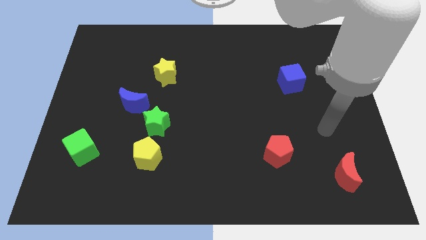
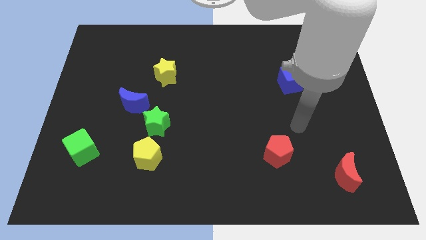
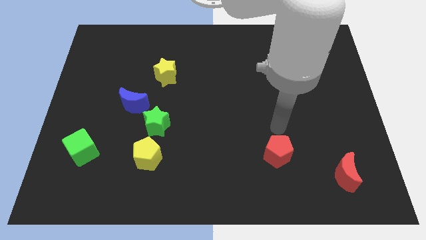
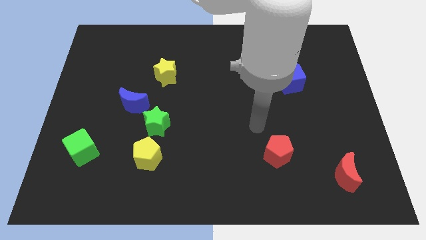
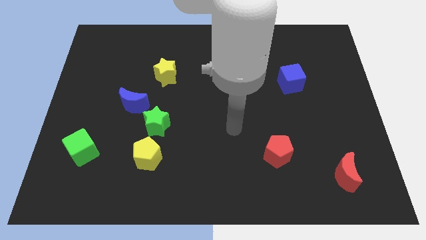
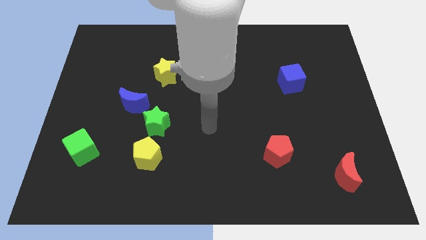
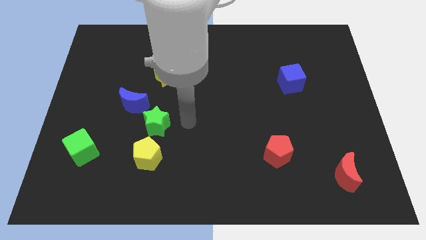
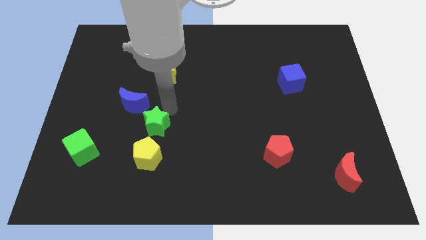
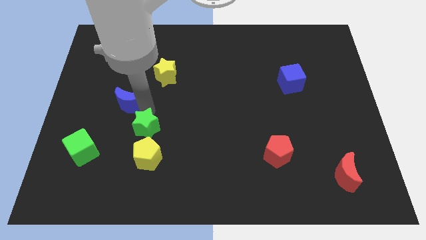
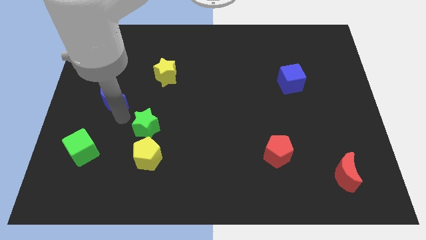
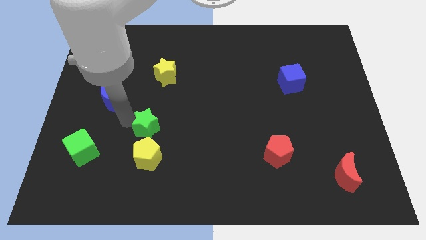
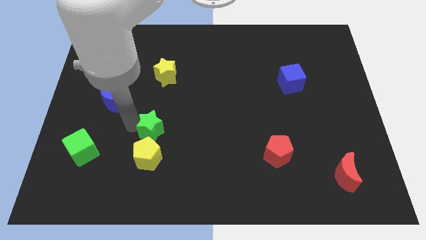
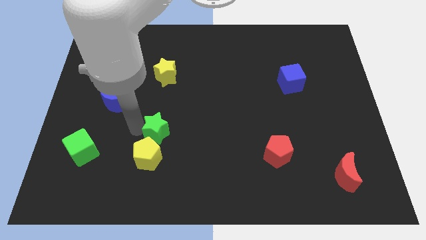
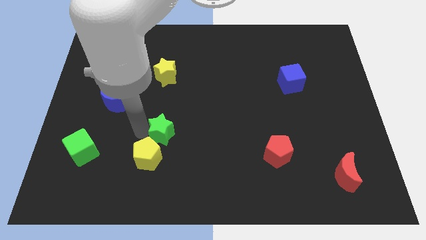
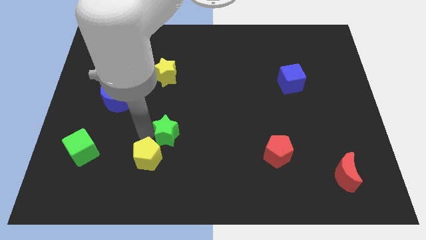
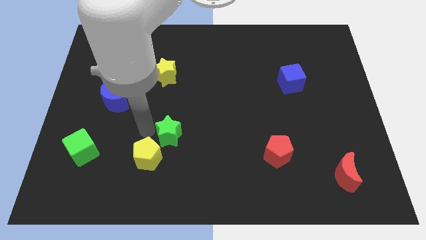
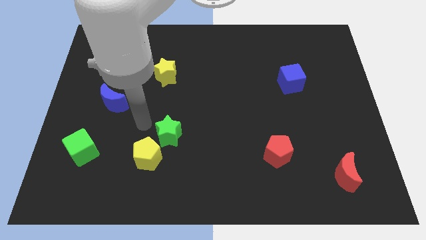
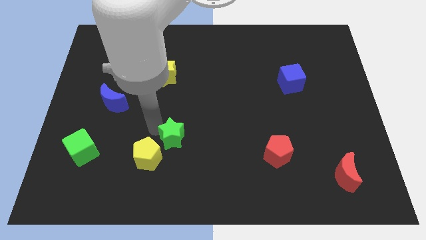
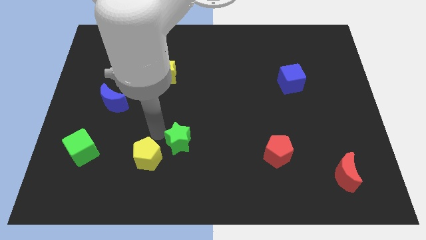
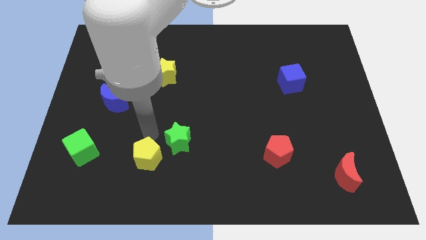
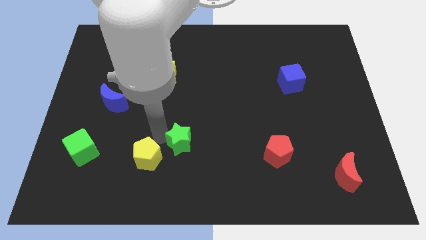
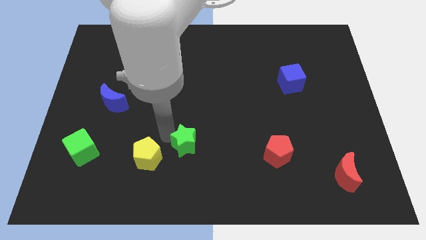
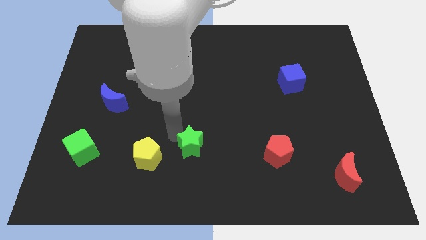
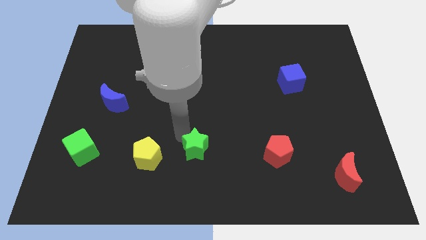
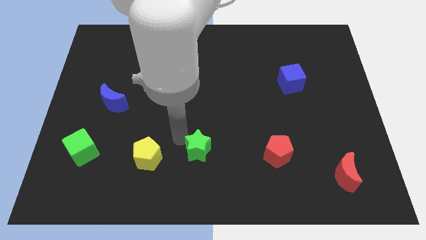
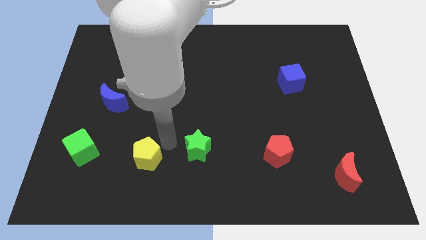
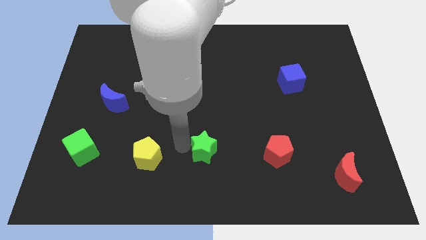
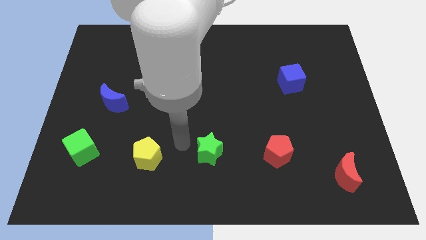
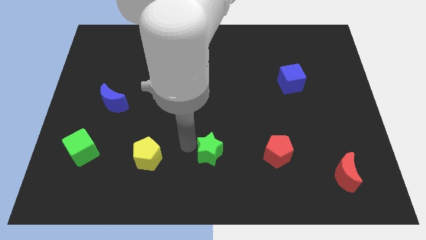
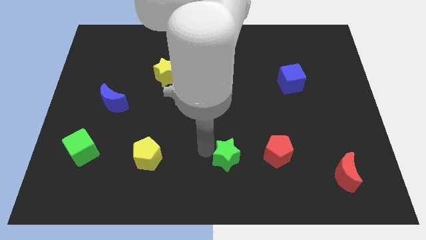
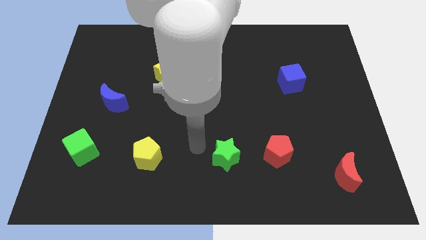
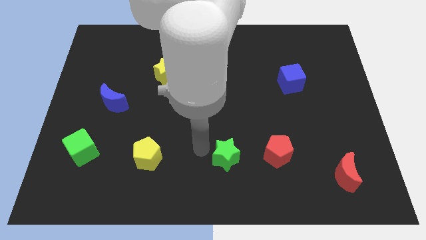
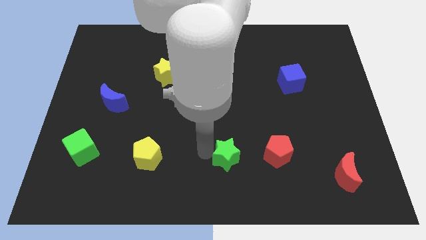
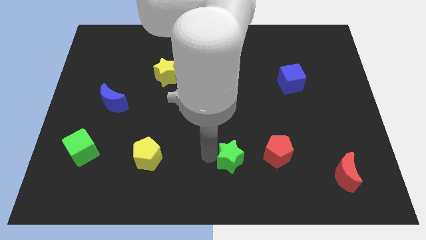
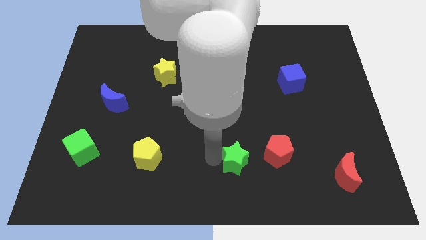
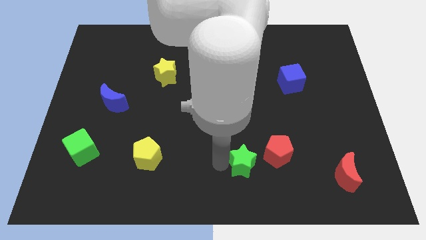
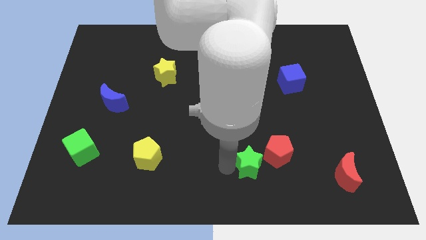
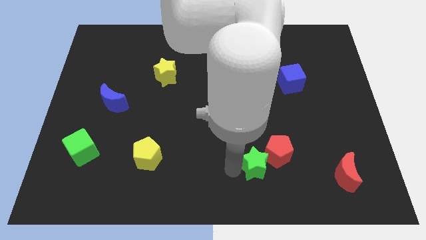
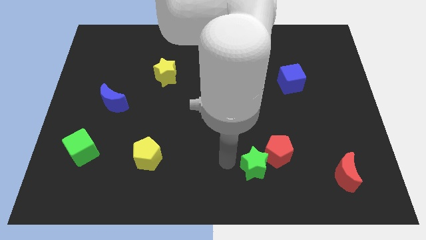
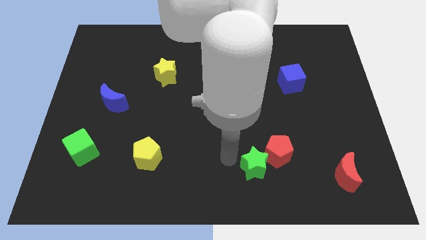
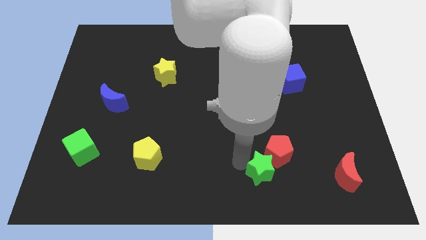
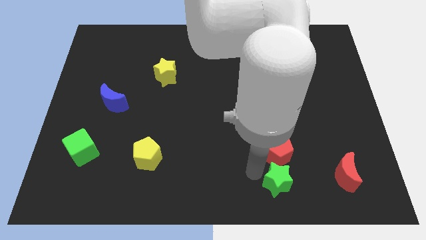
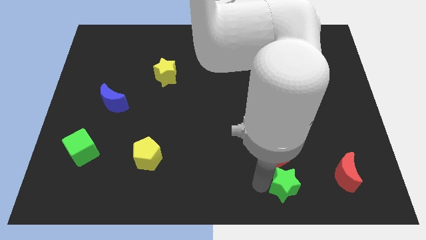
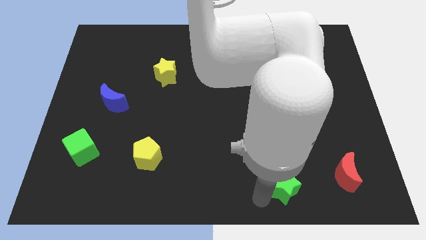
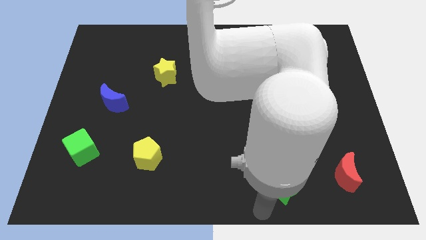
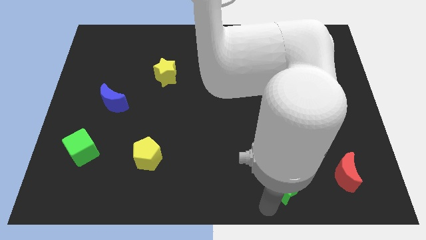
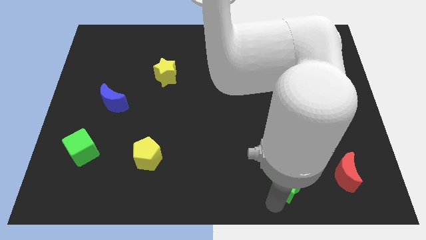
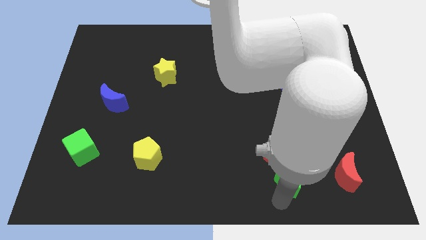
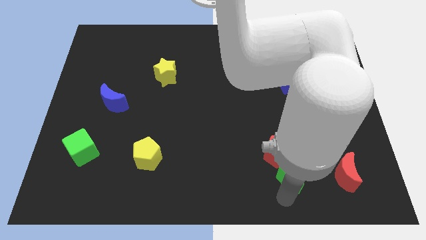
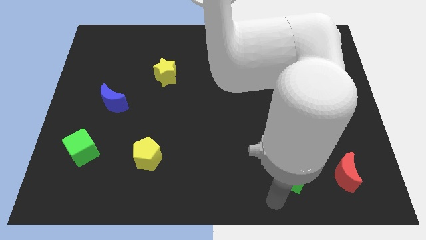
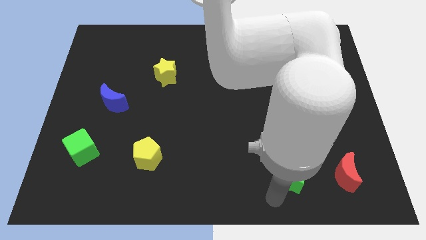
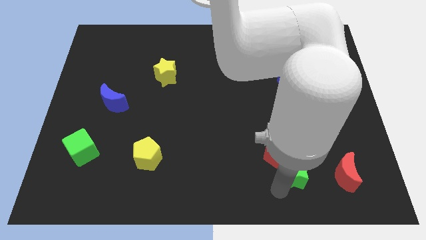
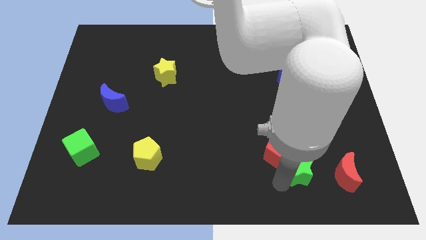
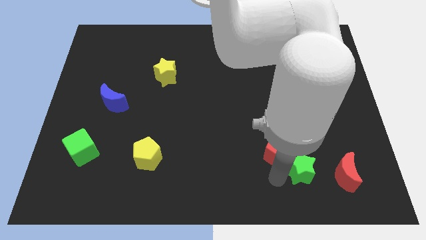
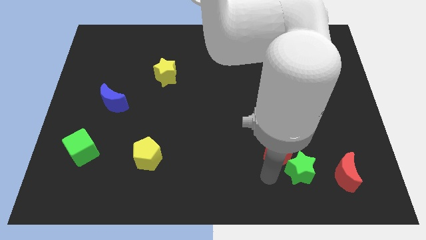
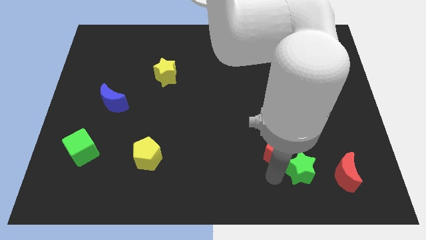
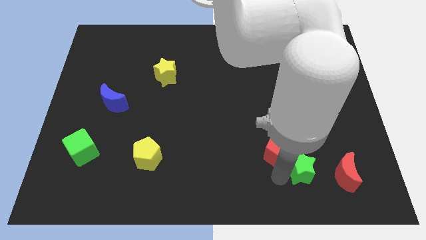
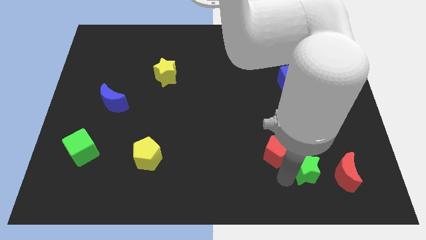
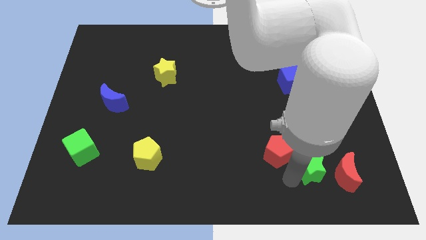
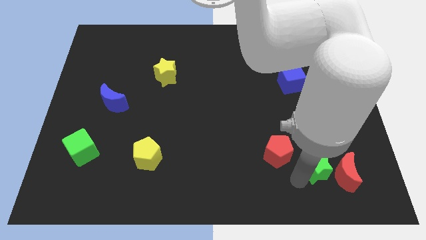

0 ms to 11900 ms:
put the green star next to the red moon

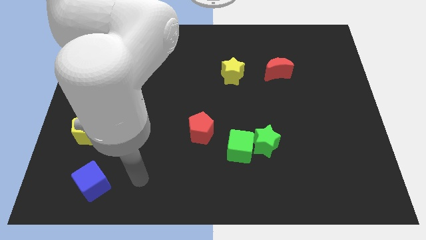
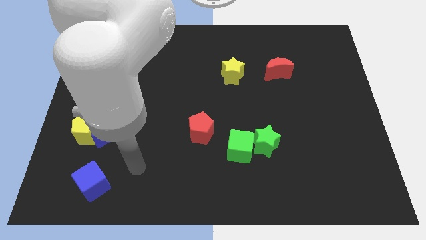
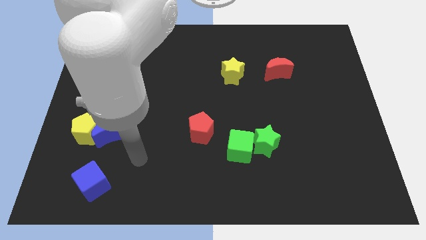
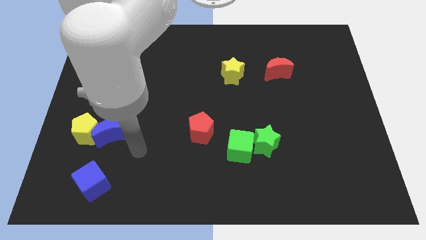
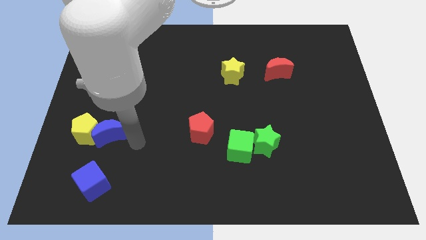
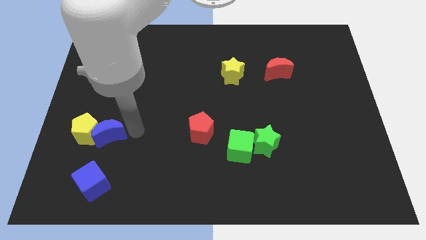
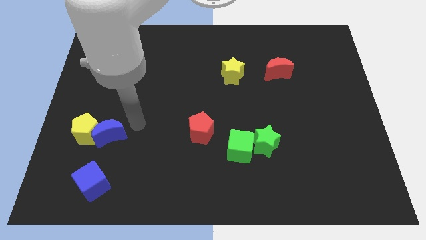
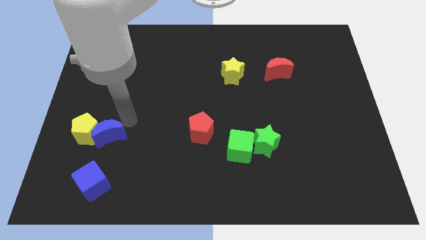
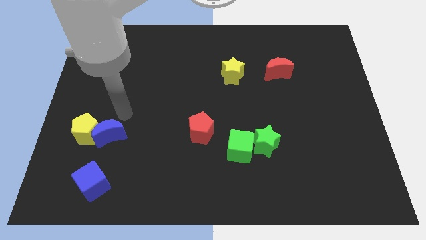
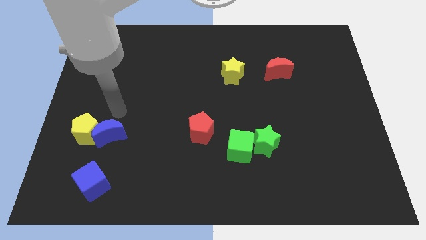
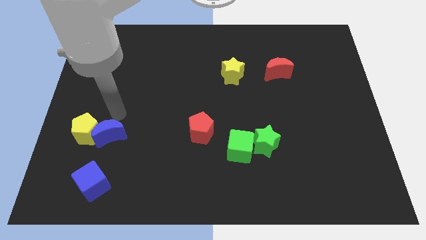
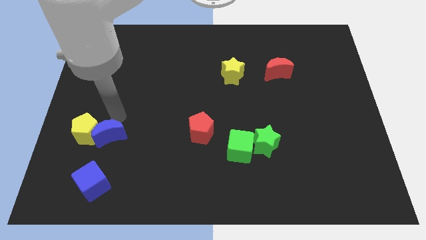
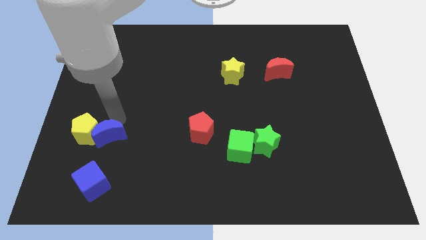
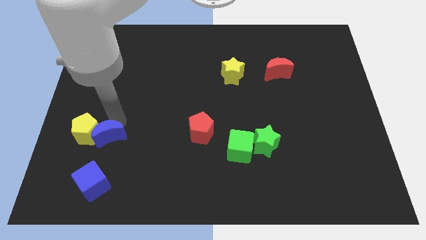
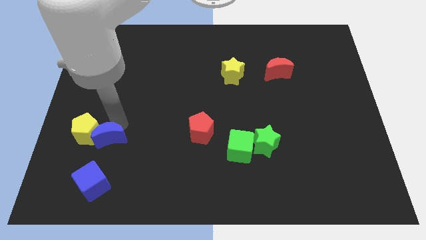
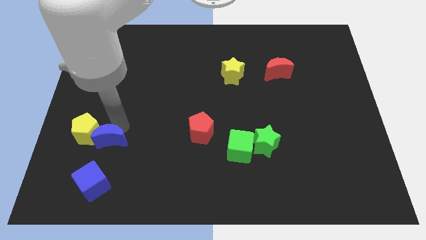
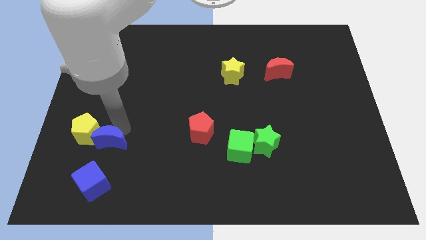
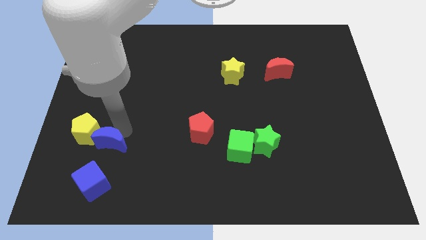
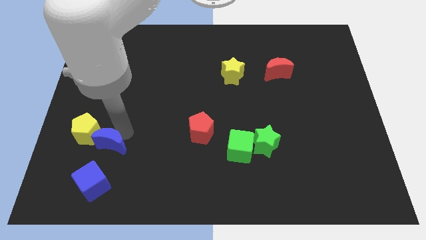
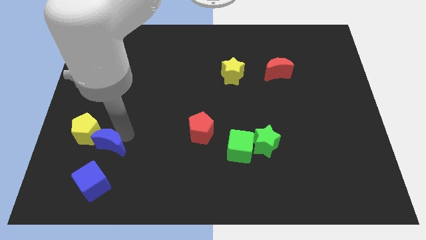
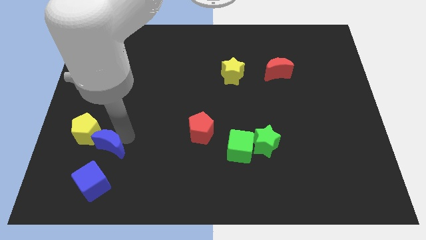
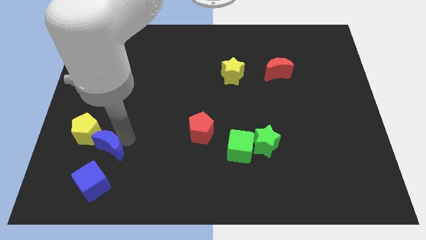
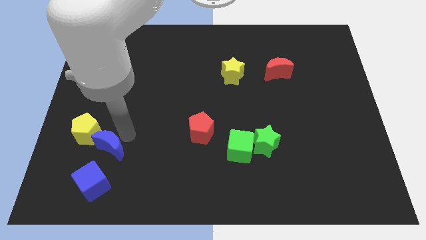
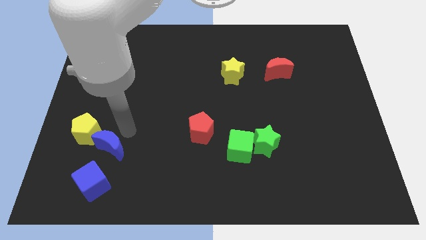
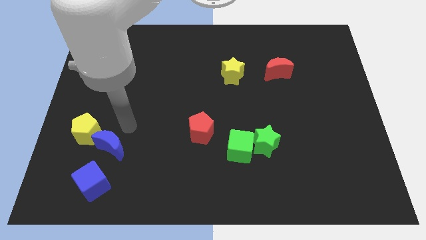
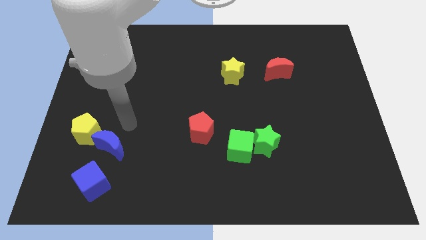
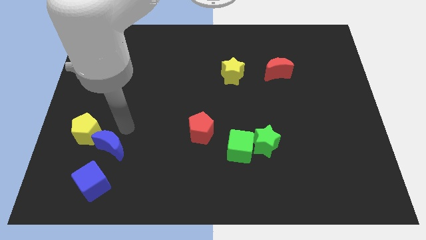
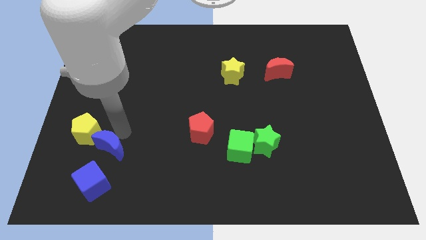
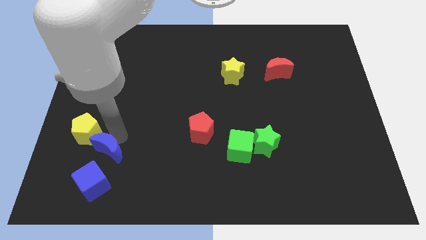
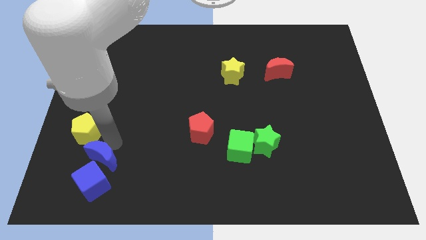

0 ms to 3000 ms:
push the blue moon towards the blue cube
